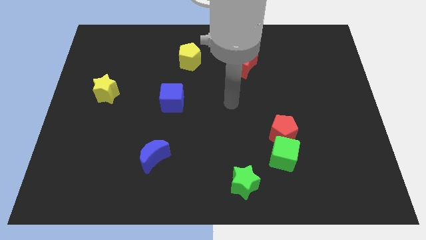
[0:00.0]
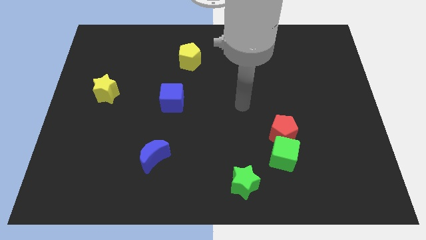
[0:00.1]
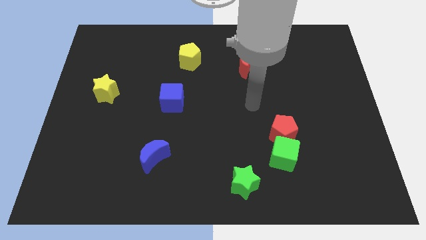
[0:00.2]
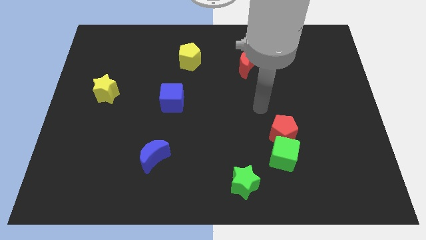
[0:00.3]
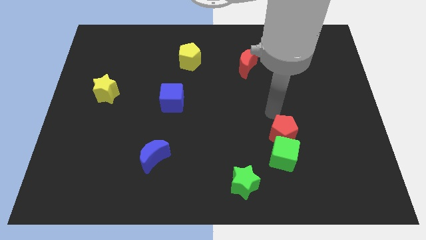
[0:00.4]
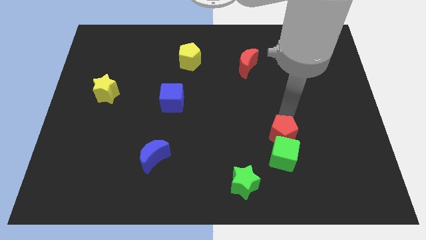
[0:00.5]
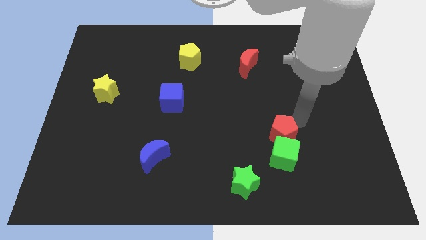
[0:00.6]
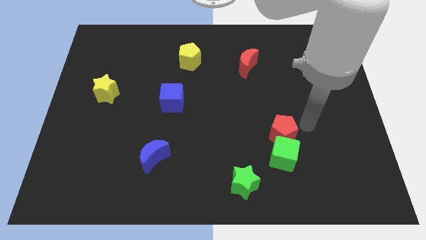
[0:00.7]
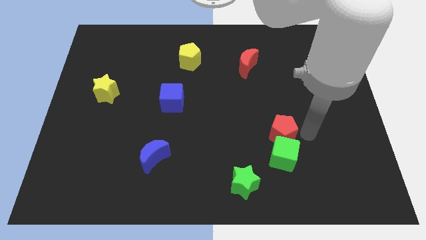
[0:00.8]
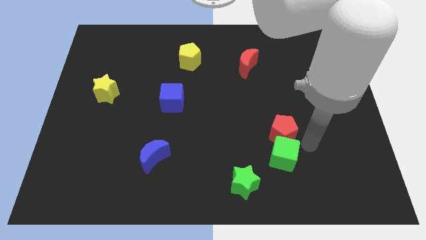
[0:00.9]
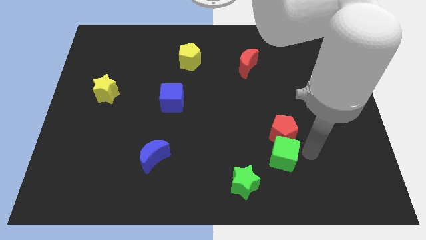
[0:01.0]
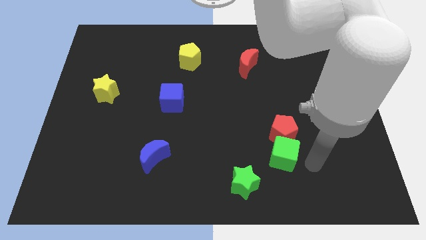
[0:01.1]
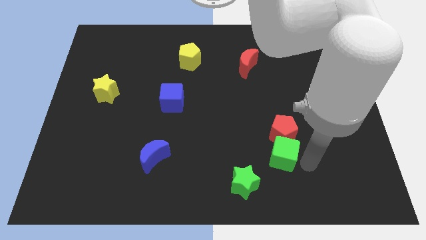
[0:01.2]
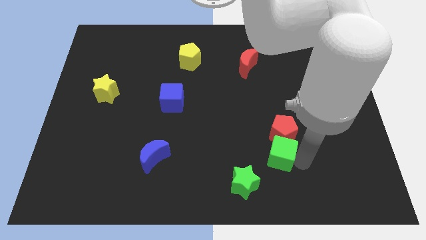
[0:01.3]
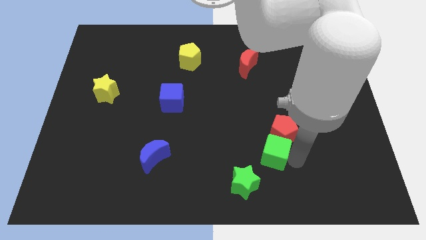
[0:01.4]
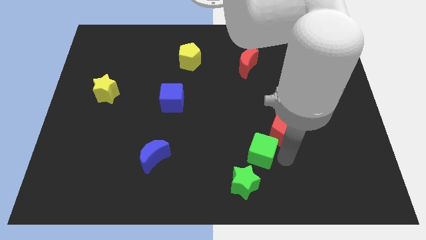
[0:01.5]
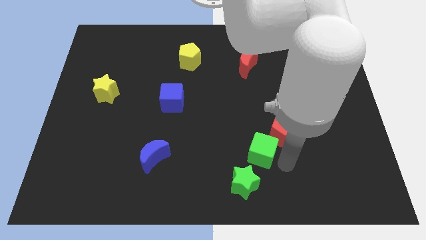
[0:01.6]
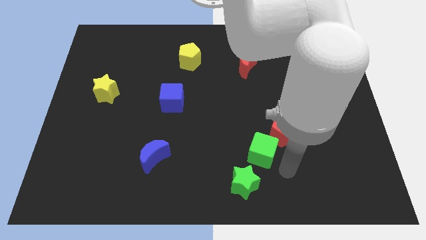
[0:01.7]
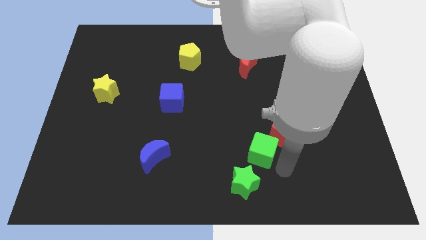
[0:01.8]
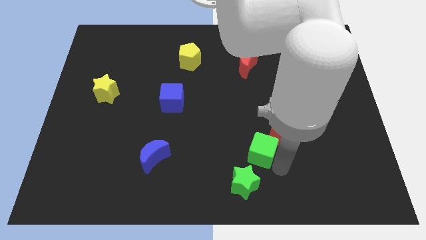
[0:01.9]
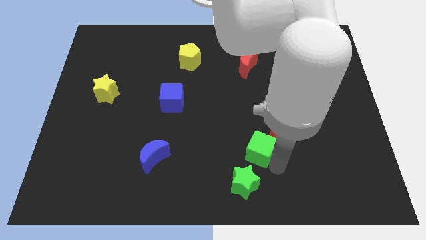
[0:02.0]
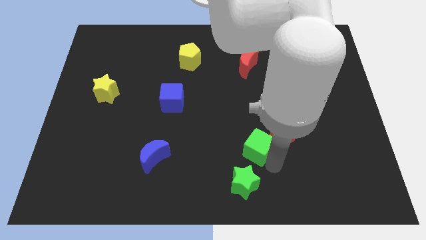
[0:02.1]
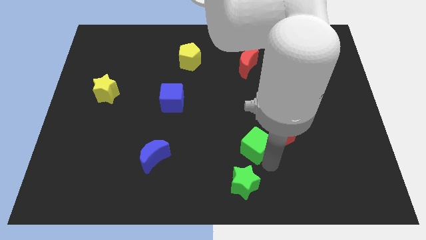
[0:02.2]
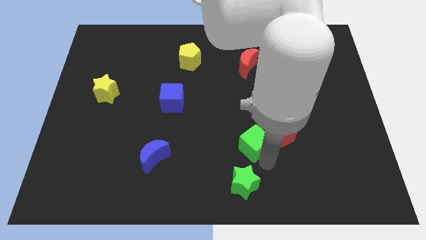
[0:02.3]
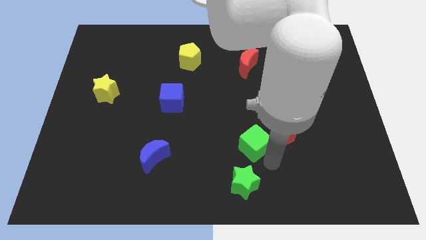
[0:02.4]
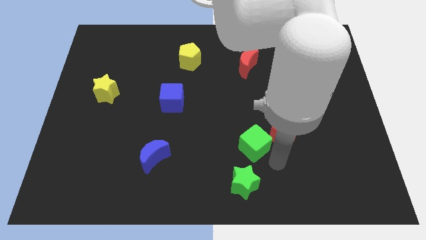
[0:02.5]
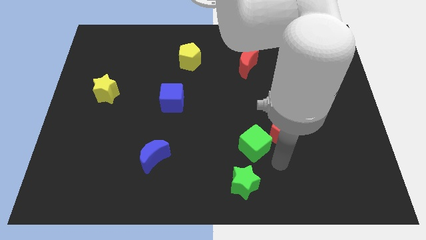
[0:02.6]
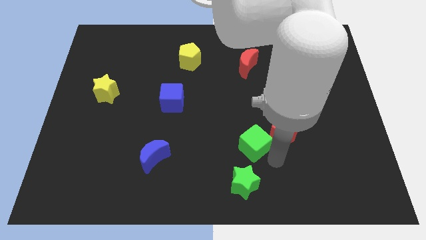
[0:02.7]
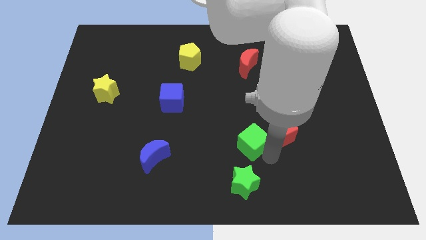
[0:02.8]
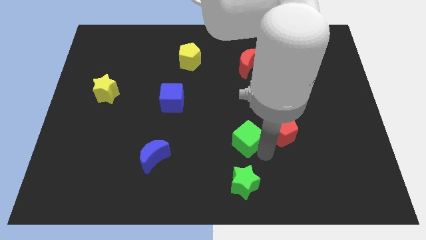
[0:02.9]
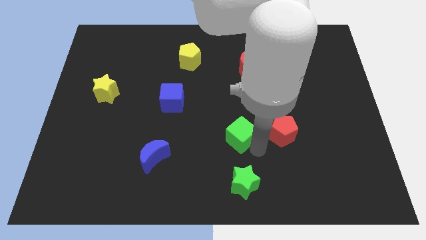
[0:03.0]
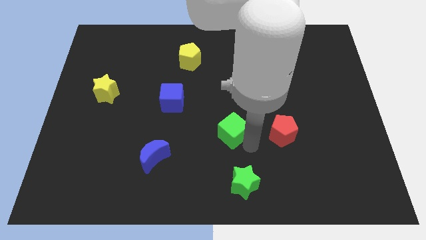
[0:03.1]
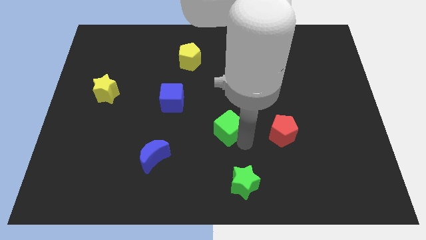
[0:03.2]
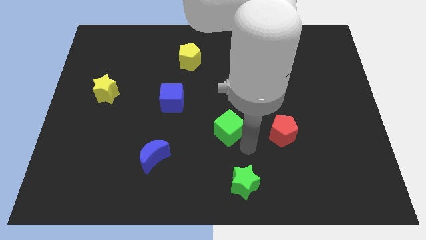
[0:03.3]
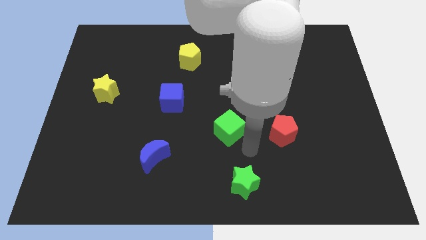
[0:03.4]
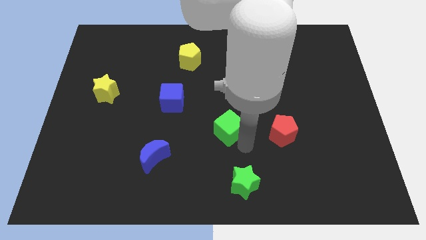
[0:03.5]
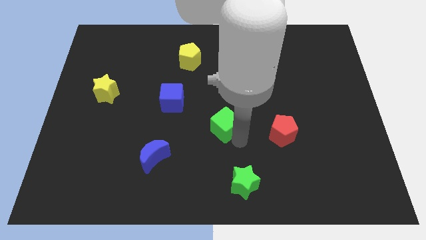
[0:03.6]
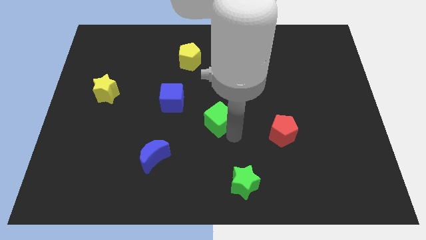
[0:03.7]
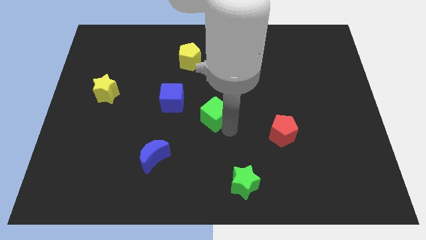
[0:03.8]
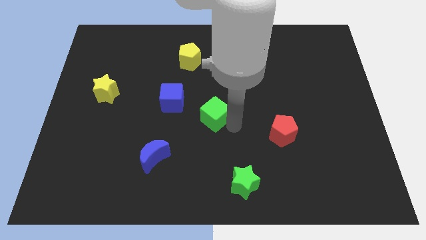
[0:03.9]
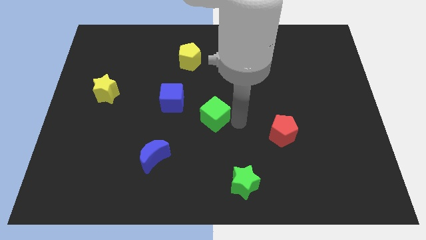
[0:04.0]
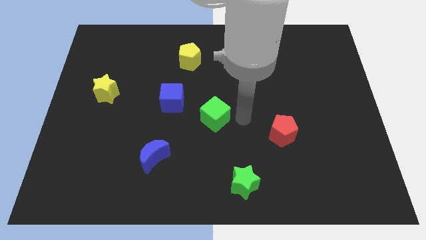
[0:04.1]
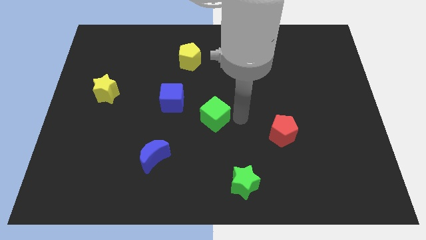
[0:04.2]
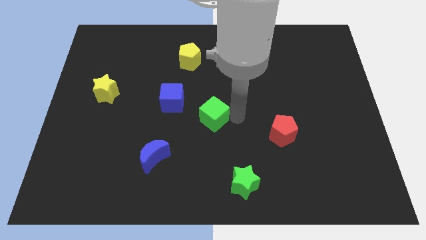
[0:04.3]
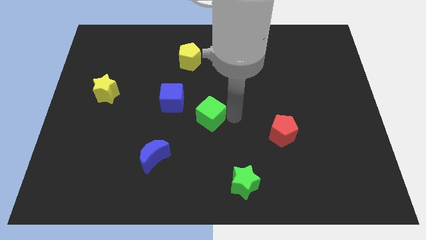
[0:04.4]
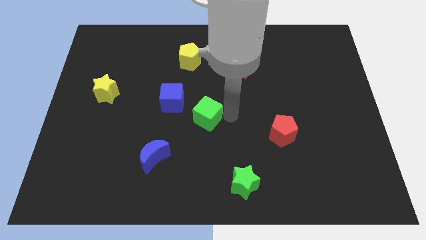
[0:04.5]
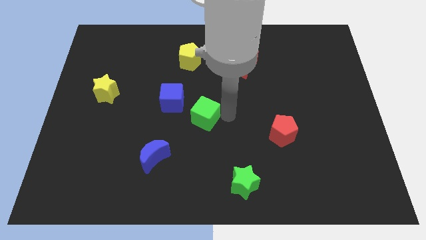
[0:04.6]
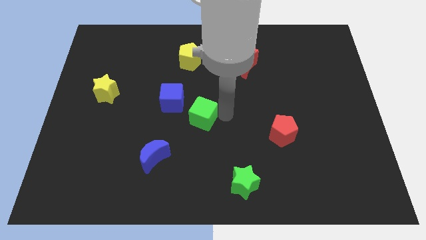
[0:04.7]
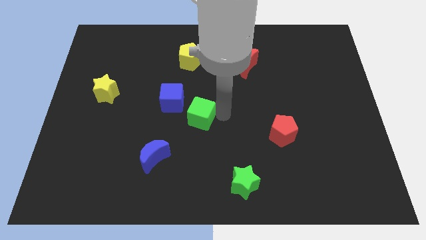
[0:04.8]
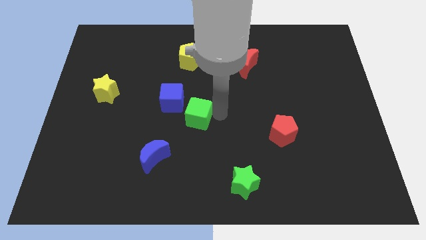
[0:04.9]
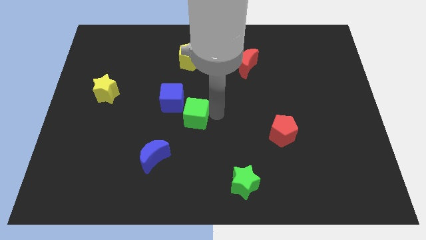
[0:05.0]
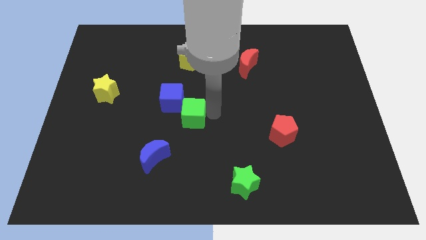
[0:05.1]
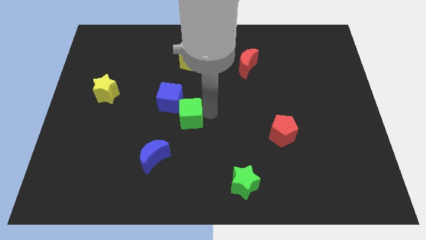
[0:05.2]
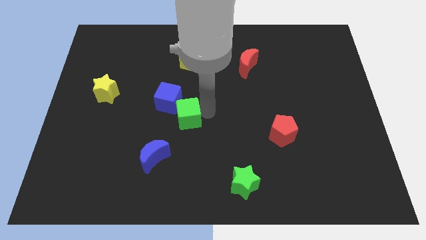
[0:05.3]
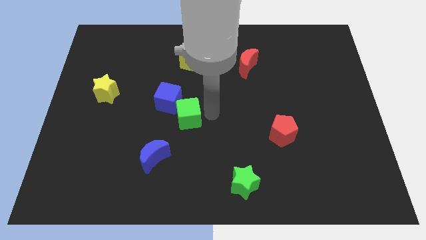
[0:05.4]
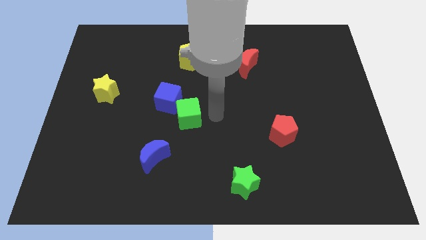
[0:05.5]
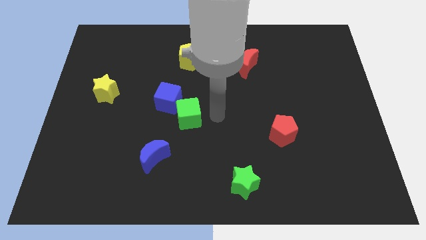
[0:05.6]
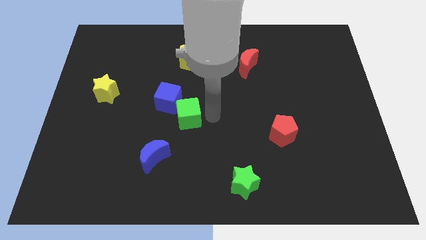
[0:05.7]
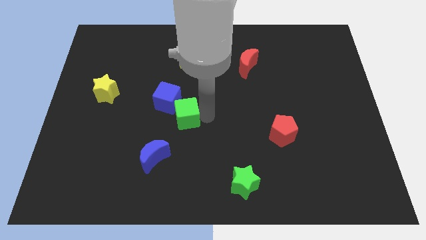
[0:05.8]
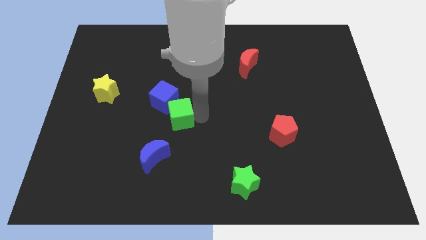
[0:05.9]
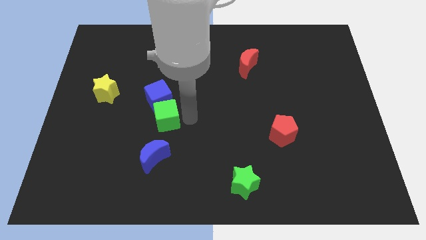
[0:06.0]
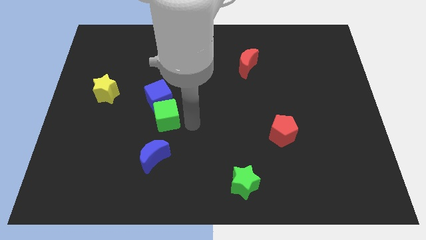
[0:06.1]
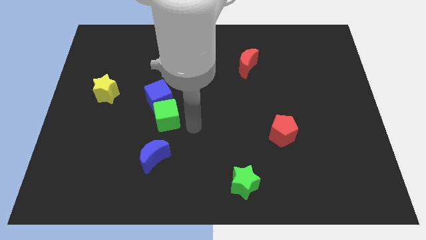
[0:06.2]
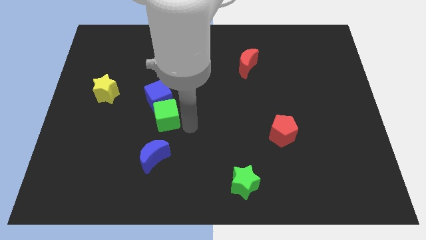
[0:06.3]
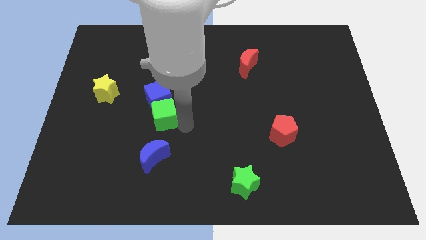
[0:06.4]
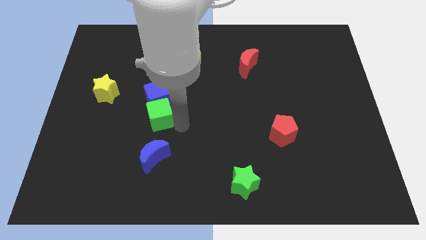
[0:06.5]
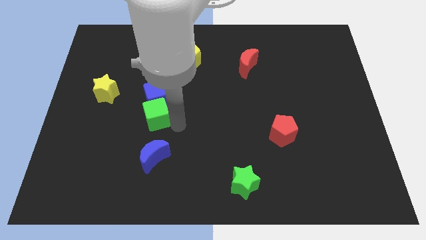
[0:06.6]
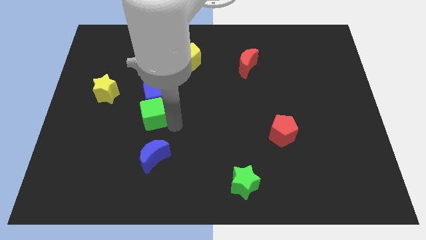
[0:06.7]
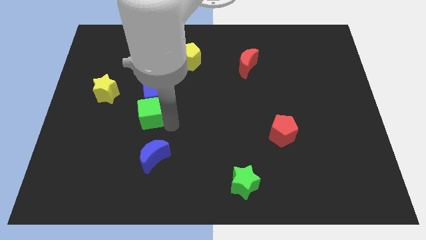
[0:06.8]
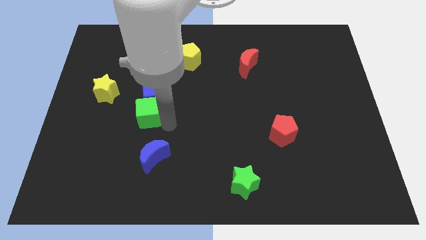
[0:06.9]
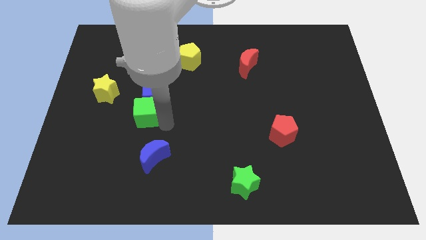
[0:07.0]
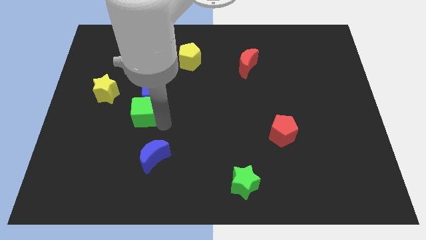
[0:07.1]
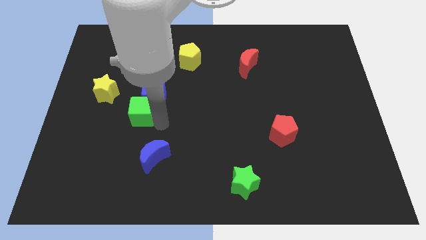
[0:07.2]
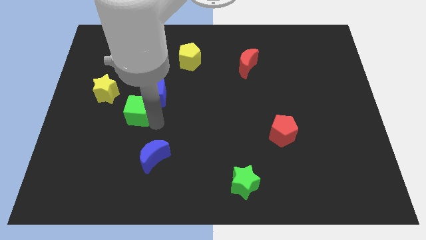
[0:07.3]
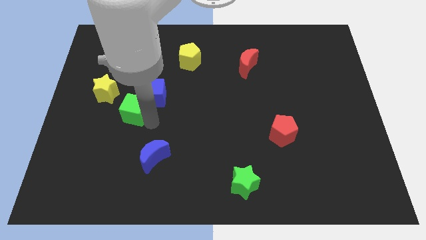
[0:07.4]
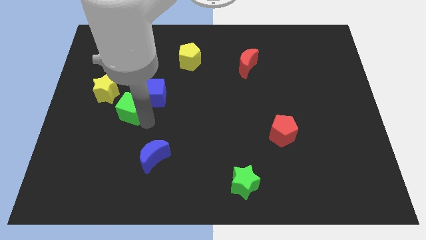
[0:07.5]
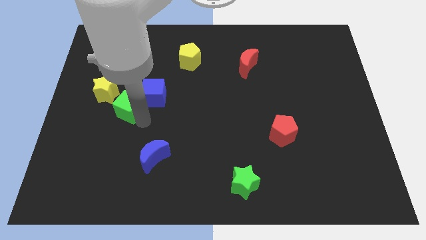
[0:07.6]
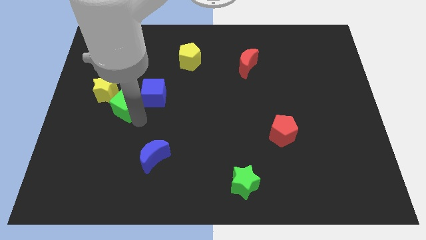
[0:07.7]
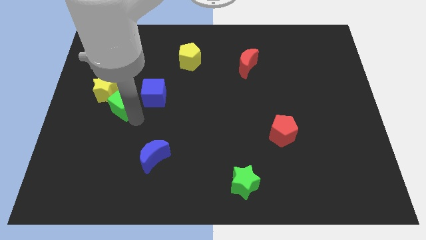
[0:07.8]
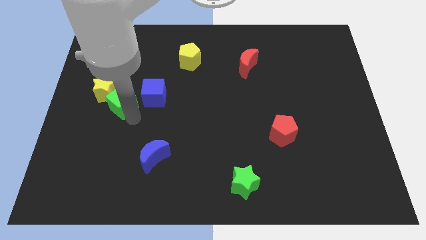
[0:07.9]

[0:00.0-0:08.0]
push the green cube close to the yellow star
